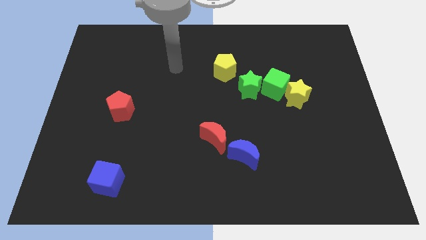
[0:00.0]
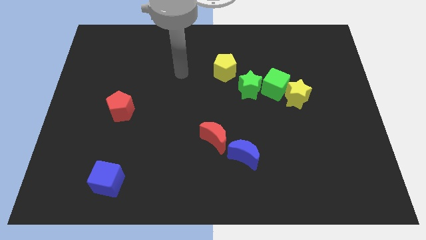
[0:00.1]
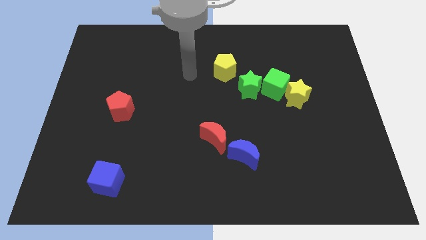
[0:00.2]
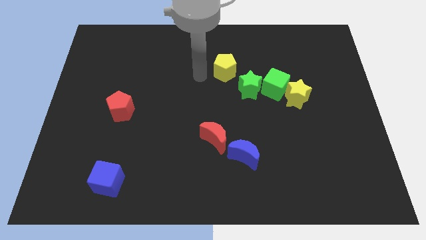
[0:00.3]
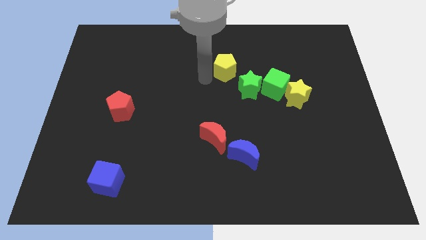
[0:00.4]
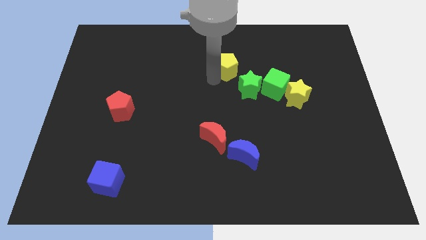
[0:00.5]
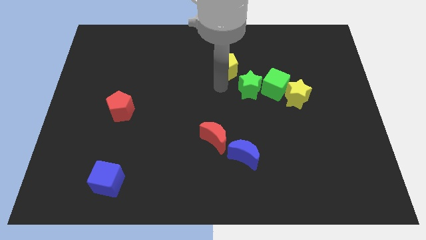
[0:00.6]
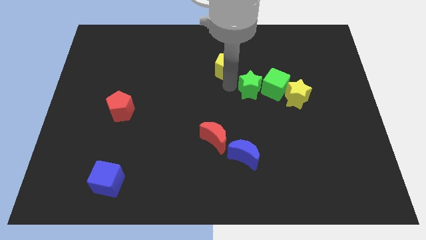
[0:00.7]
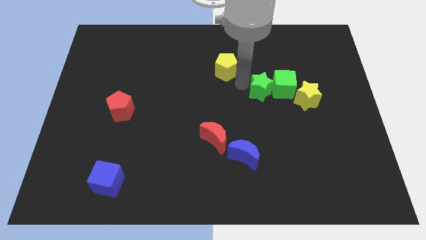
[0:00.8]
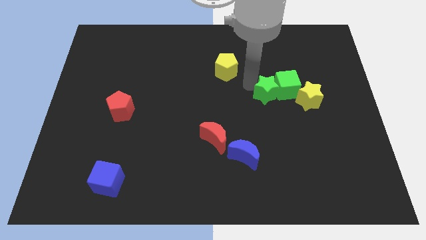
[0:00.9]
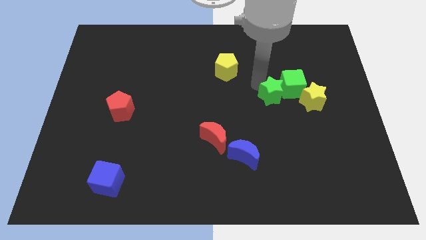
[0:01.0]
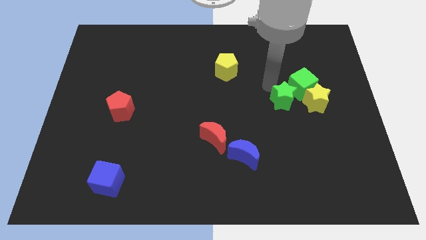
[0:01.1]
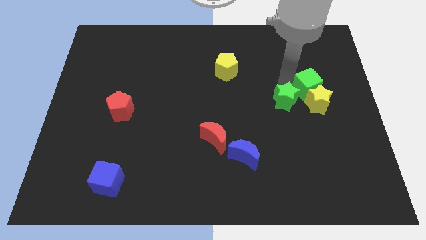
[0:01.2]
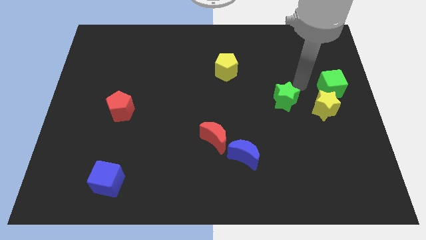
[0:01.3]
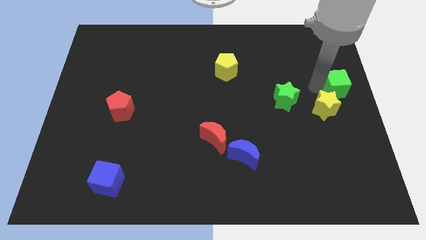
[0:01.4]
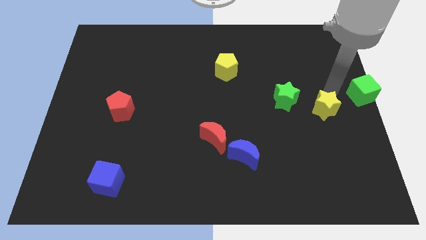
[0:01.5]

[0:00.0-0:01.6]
pull the yellow star apart from the green cube

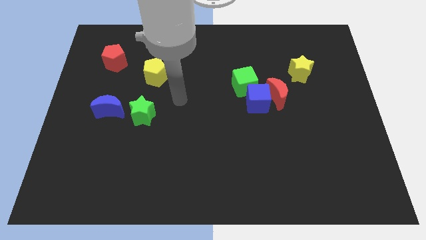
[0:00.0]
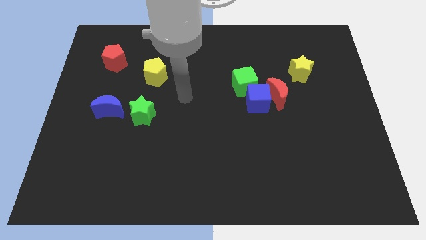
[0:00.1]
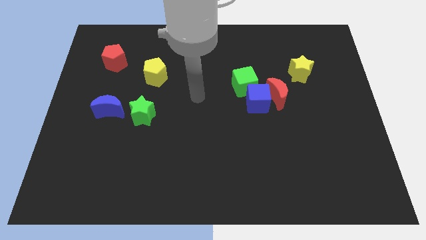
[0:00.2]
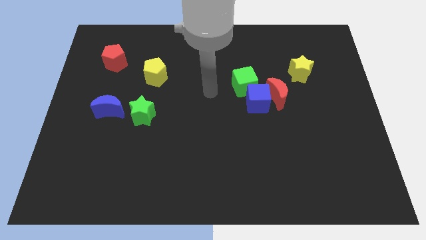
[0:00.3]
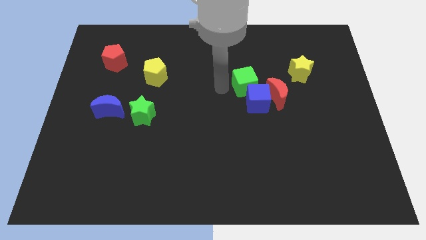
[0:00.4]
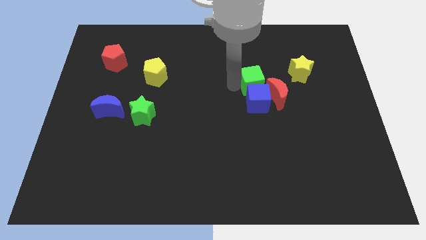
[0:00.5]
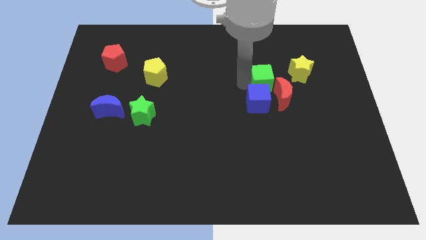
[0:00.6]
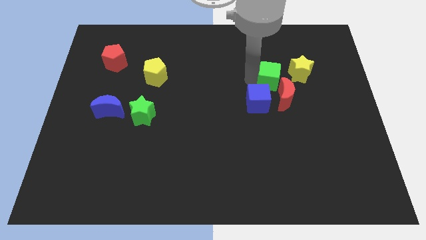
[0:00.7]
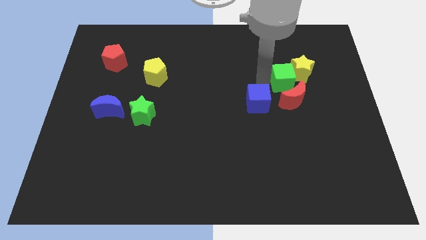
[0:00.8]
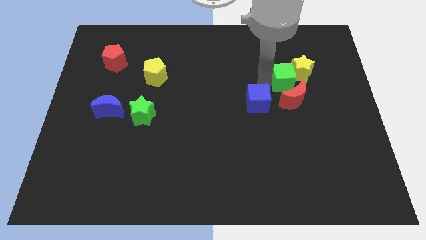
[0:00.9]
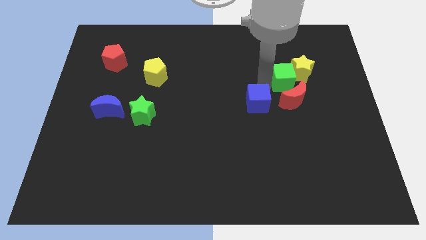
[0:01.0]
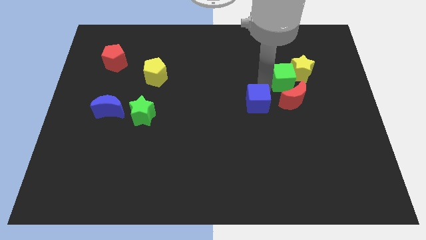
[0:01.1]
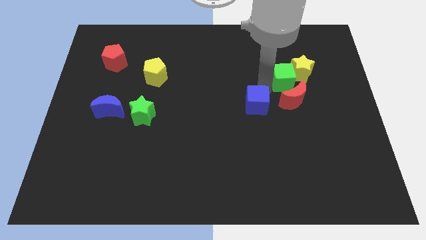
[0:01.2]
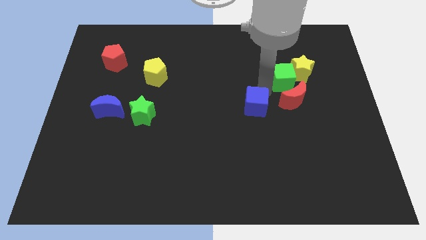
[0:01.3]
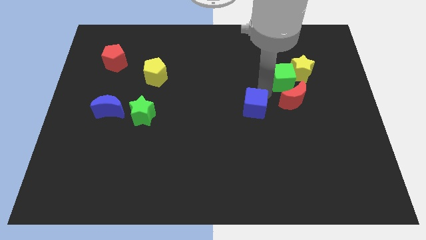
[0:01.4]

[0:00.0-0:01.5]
separate the blue cube from the red moon and green cube

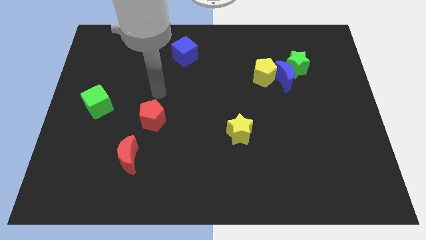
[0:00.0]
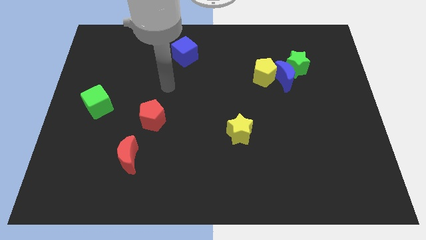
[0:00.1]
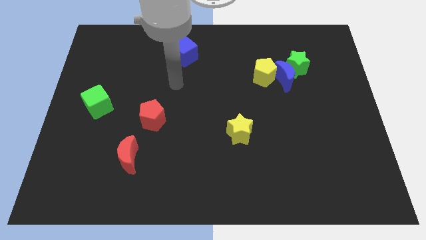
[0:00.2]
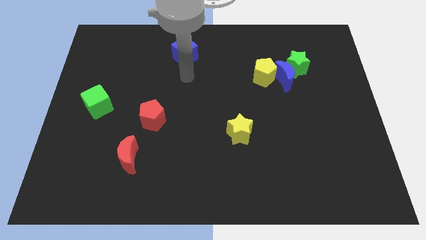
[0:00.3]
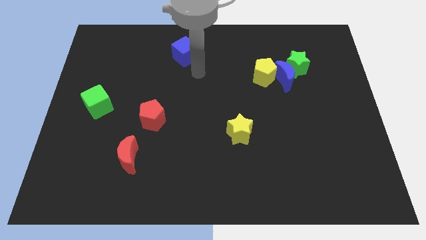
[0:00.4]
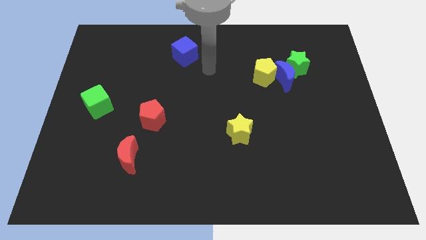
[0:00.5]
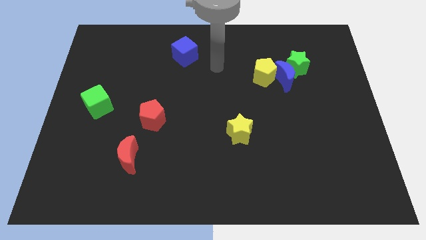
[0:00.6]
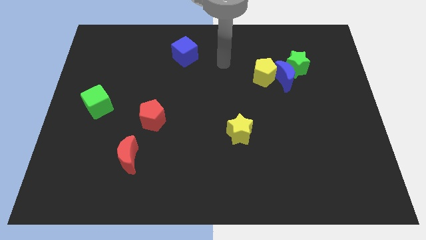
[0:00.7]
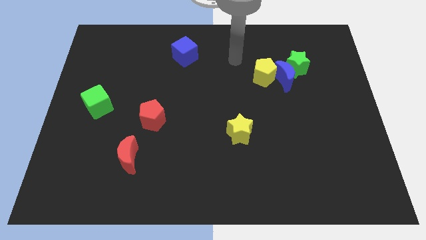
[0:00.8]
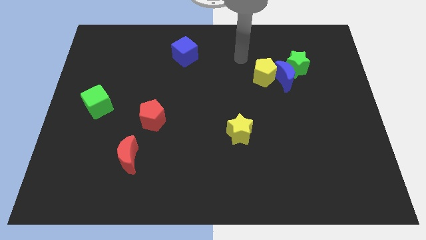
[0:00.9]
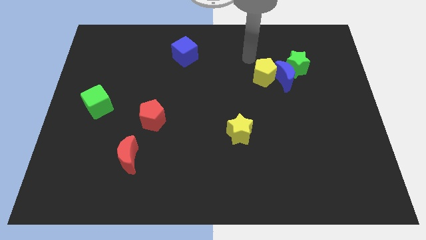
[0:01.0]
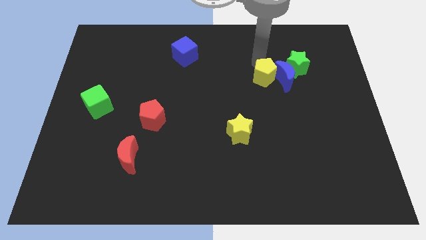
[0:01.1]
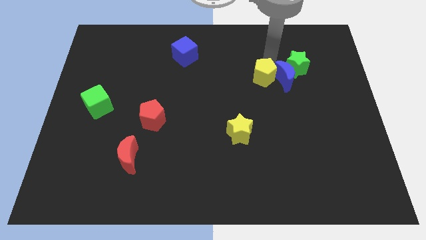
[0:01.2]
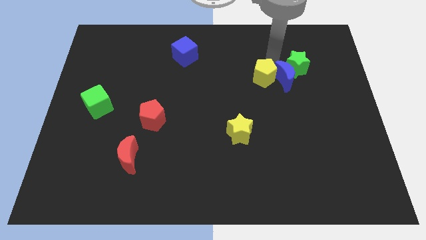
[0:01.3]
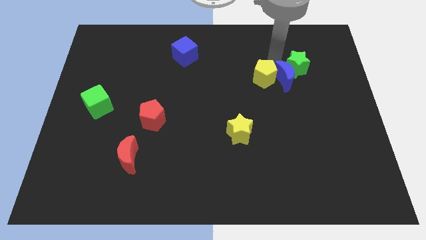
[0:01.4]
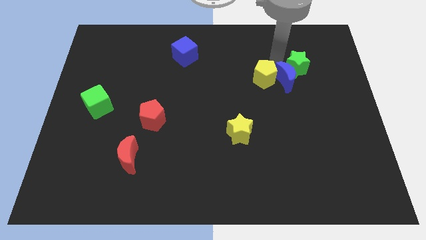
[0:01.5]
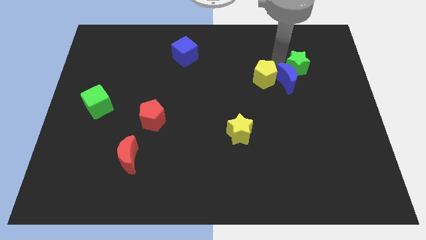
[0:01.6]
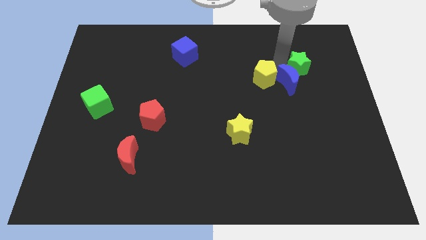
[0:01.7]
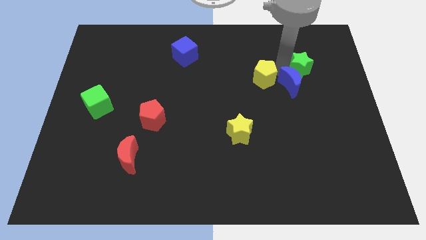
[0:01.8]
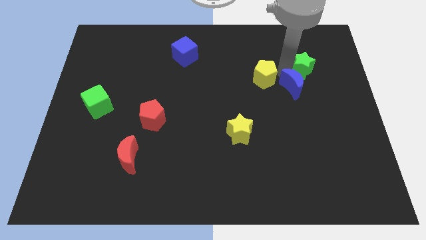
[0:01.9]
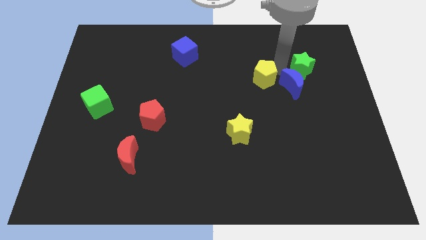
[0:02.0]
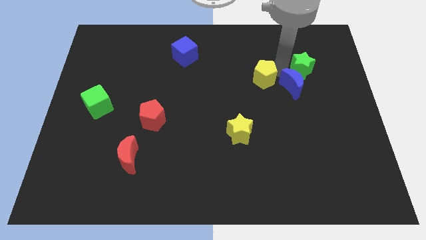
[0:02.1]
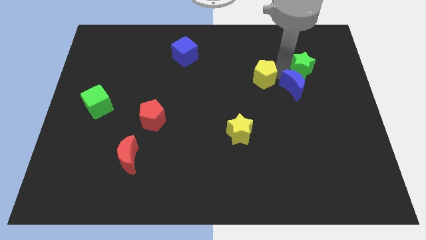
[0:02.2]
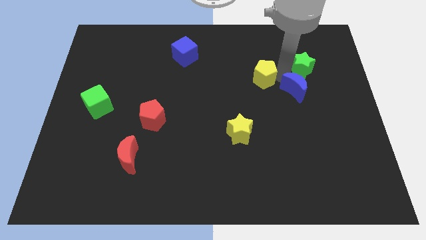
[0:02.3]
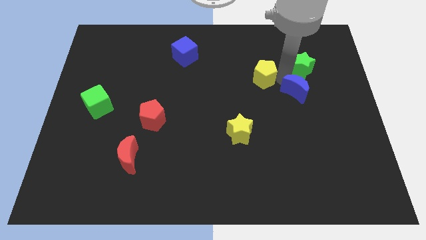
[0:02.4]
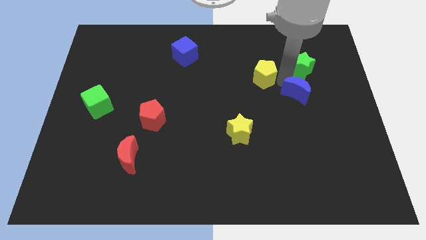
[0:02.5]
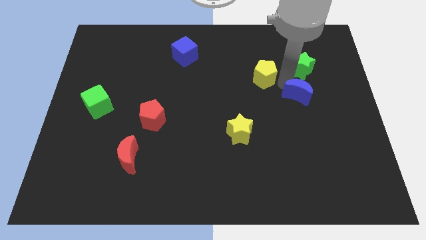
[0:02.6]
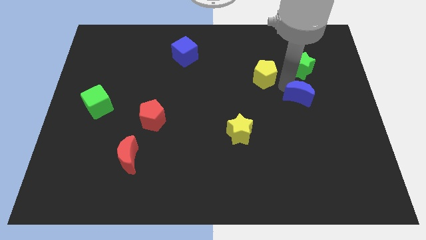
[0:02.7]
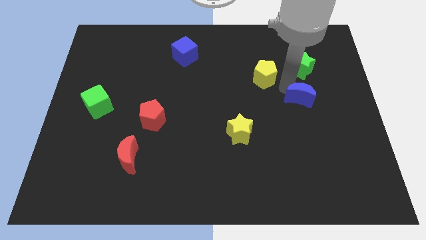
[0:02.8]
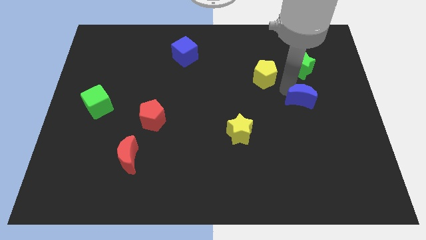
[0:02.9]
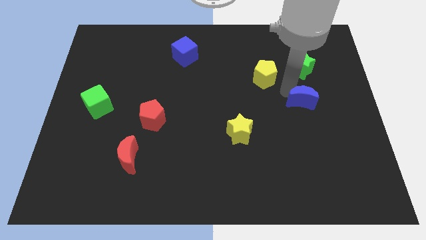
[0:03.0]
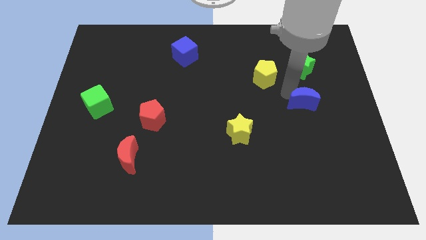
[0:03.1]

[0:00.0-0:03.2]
separate the blue moon from the green star and yellow pentagon

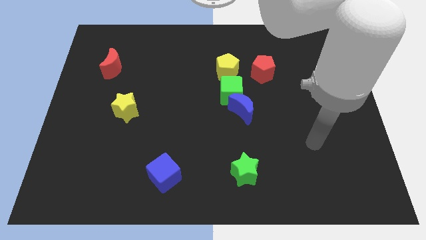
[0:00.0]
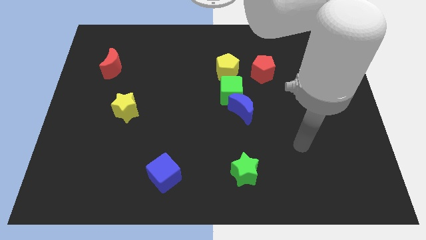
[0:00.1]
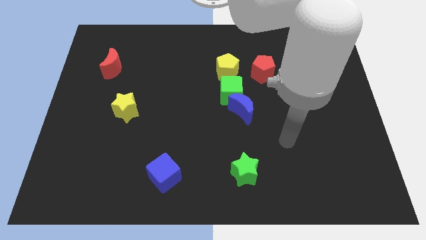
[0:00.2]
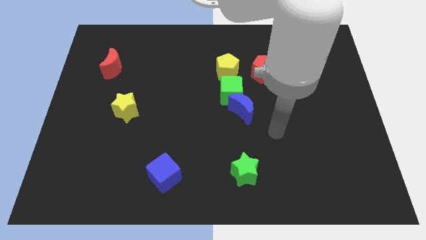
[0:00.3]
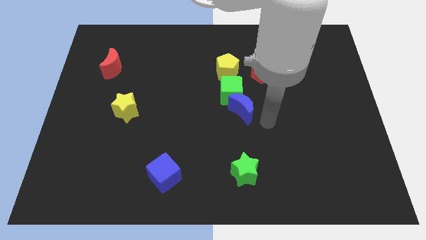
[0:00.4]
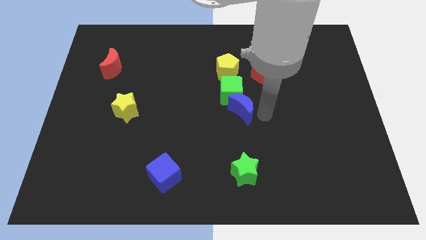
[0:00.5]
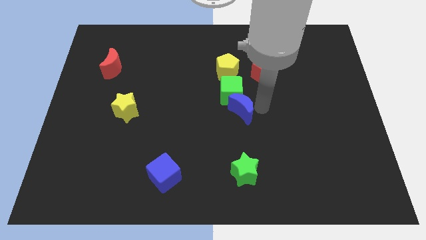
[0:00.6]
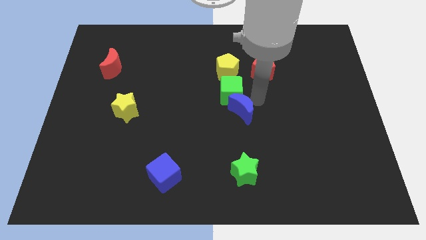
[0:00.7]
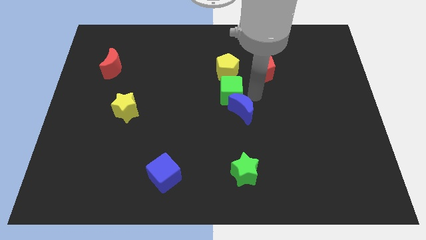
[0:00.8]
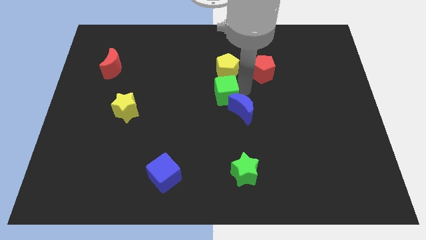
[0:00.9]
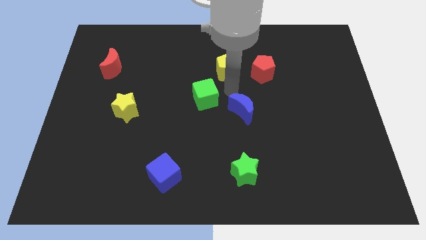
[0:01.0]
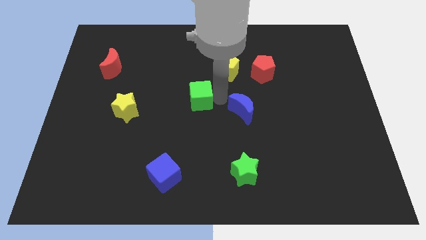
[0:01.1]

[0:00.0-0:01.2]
pull the blue moon apart from the green cube

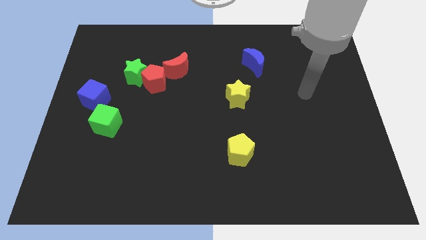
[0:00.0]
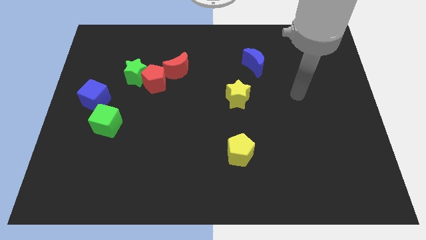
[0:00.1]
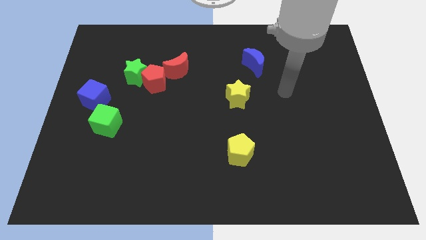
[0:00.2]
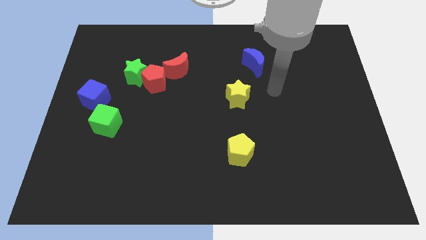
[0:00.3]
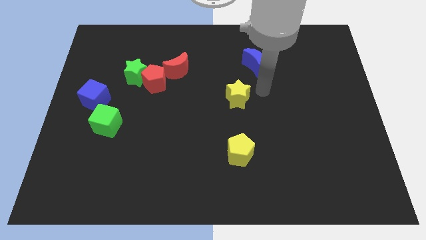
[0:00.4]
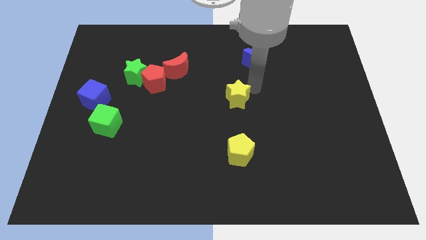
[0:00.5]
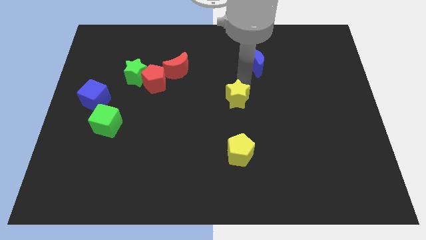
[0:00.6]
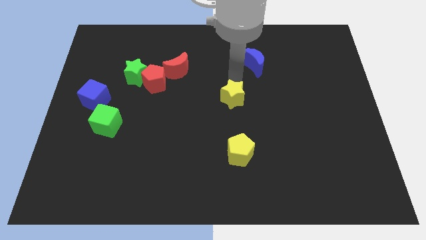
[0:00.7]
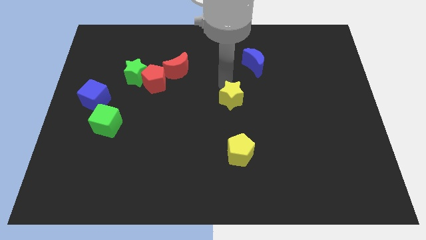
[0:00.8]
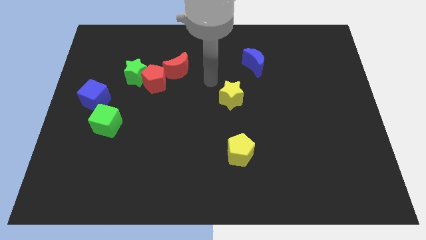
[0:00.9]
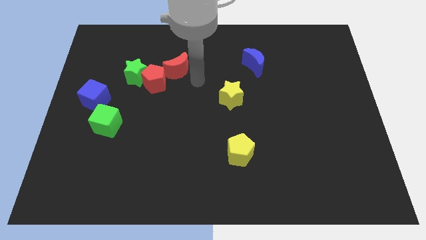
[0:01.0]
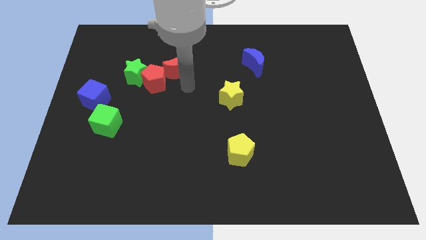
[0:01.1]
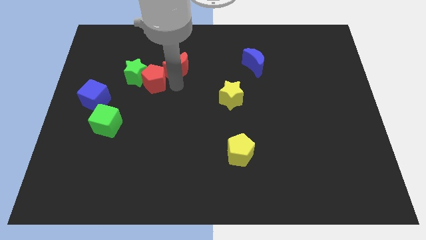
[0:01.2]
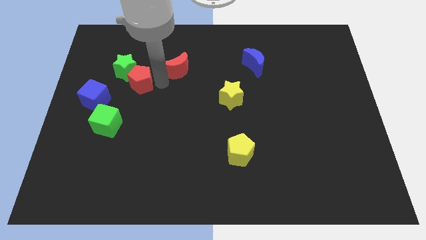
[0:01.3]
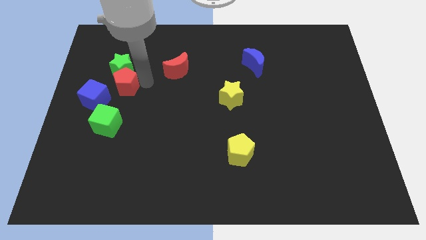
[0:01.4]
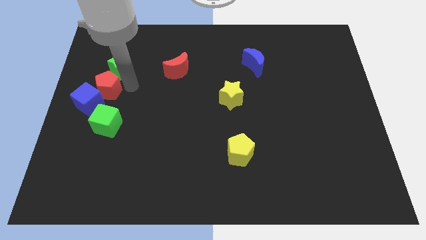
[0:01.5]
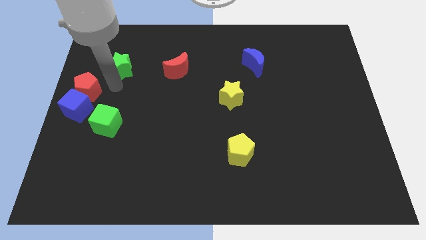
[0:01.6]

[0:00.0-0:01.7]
move the green star away from the red pentagon

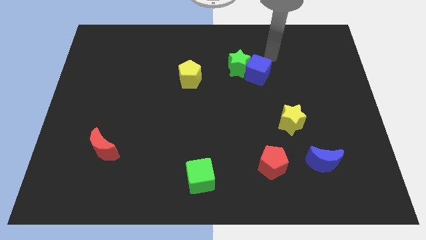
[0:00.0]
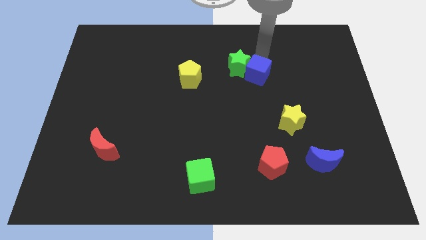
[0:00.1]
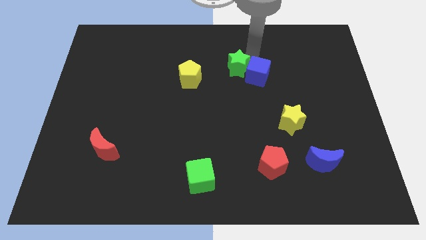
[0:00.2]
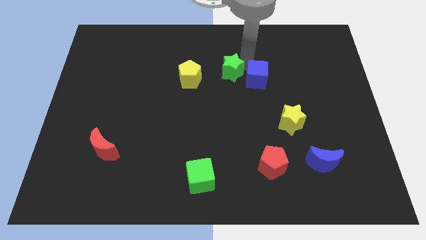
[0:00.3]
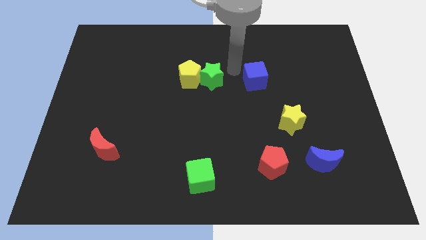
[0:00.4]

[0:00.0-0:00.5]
move the blue cube away from the green star
